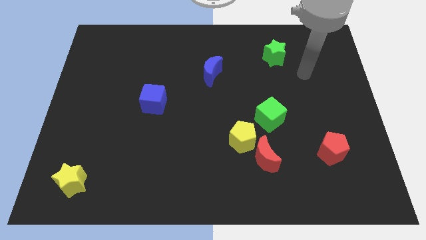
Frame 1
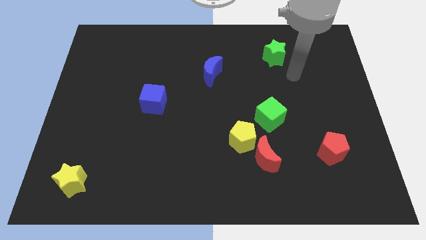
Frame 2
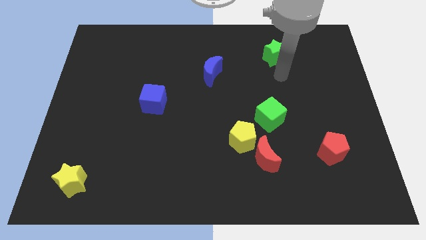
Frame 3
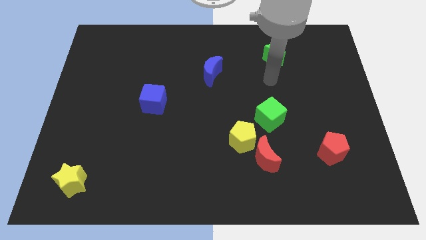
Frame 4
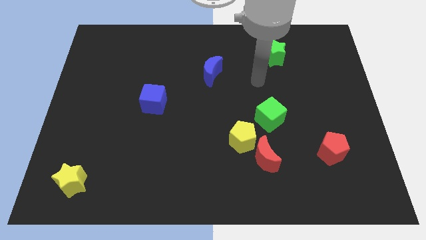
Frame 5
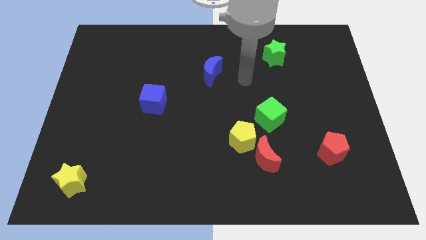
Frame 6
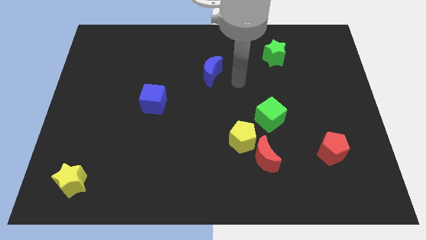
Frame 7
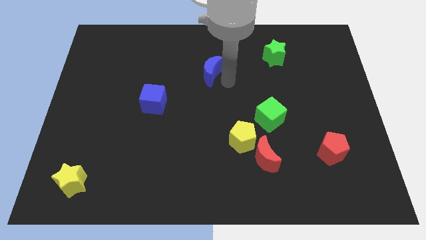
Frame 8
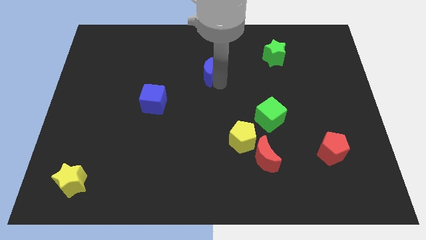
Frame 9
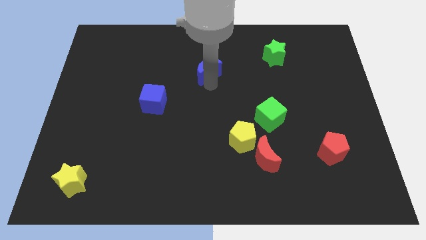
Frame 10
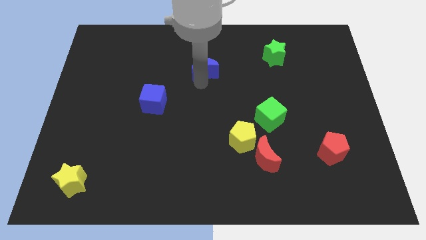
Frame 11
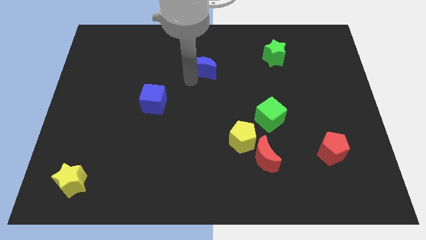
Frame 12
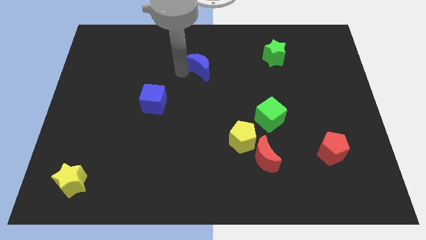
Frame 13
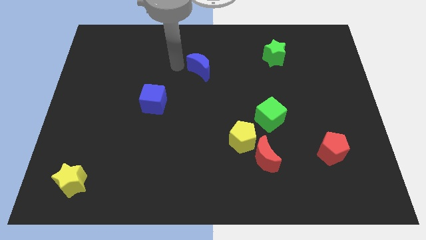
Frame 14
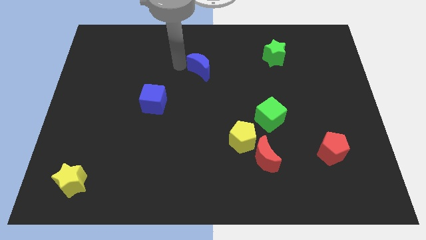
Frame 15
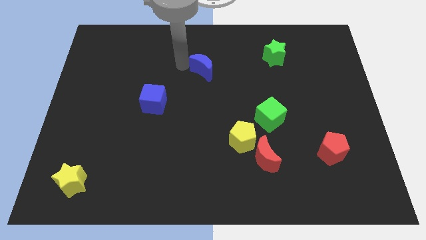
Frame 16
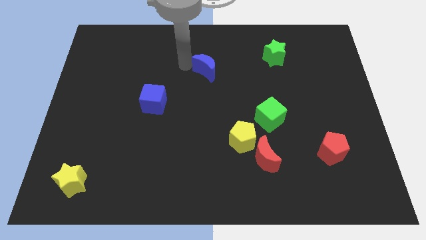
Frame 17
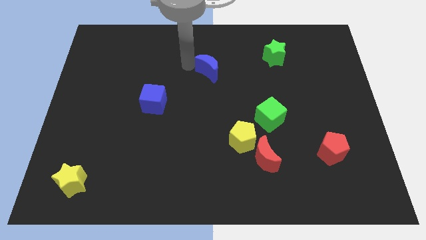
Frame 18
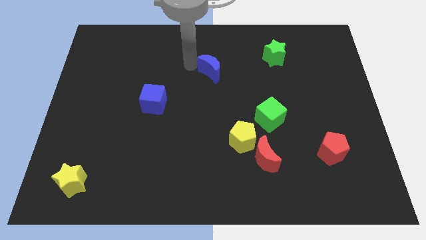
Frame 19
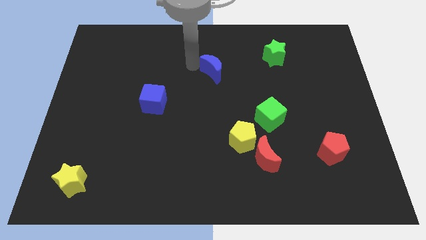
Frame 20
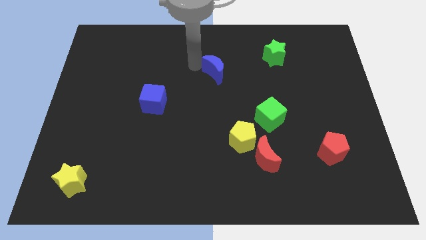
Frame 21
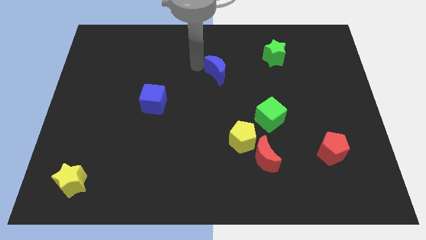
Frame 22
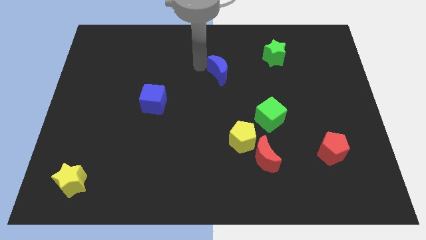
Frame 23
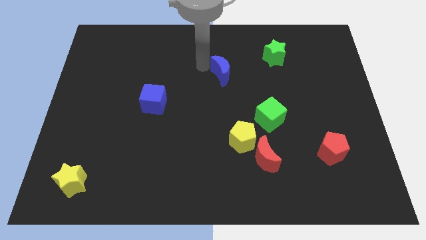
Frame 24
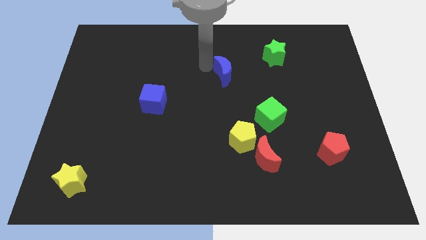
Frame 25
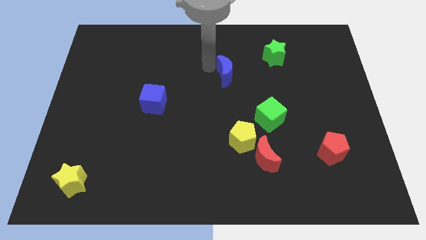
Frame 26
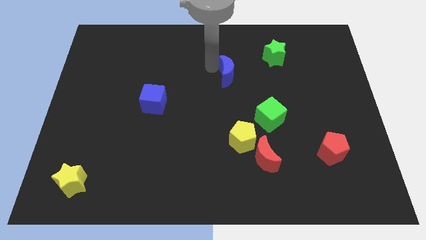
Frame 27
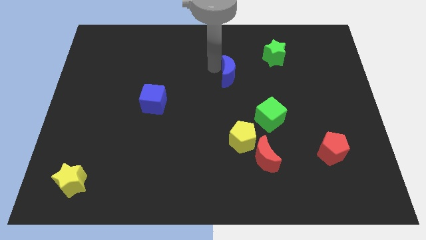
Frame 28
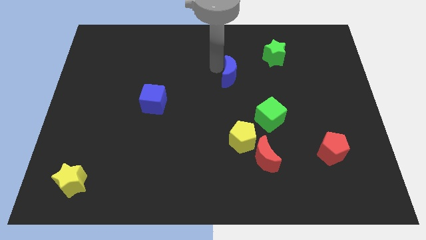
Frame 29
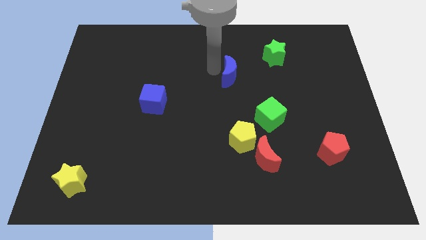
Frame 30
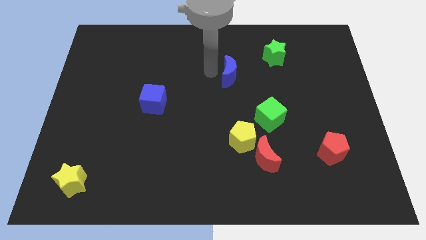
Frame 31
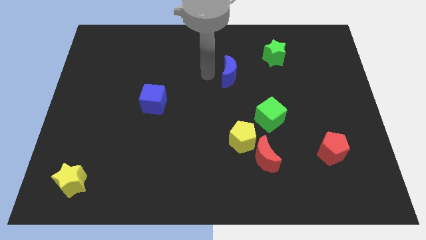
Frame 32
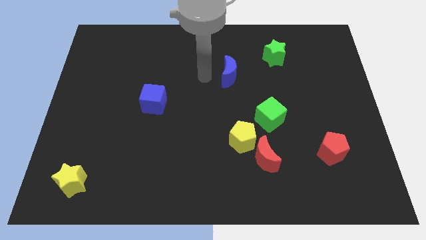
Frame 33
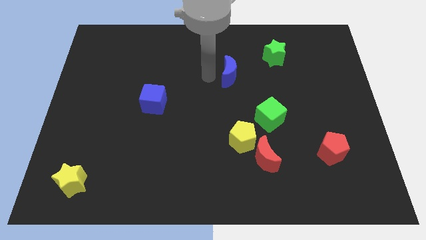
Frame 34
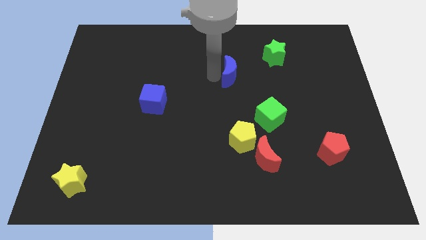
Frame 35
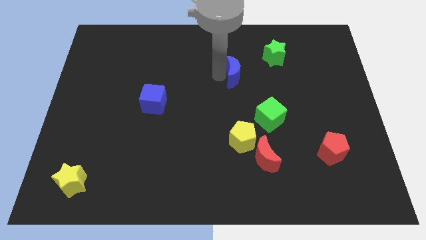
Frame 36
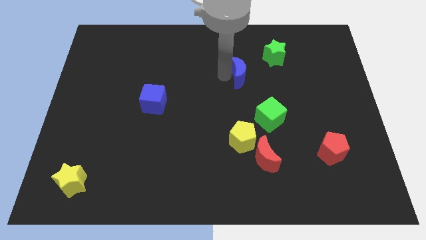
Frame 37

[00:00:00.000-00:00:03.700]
slide the blue moon somewhat to the right

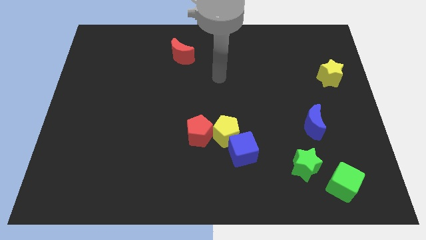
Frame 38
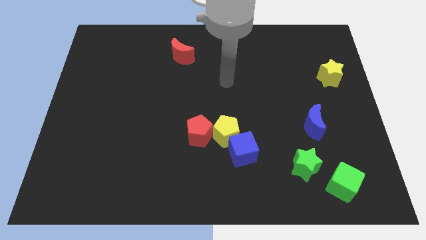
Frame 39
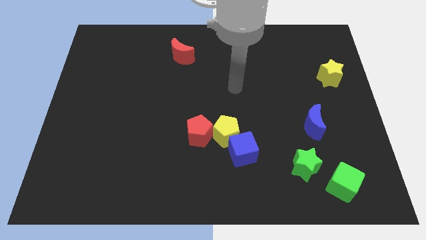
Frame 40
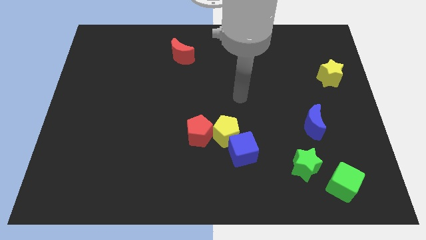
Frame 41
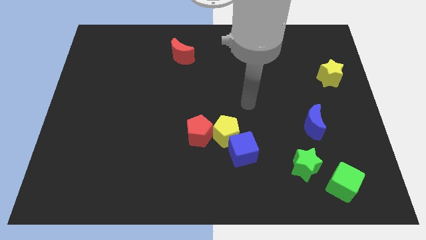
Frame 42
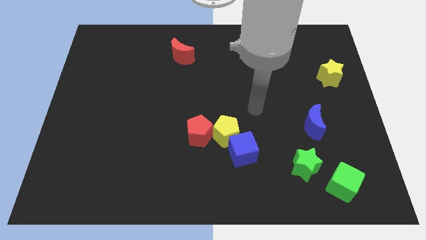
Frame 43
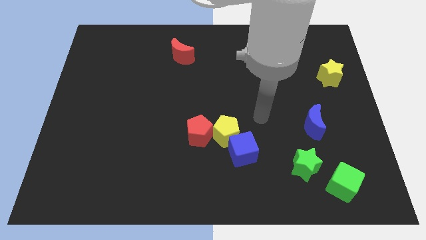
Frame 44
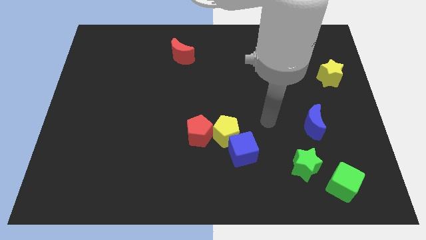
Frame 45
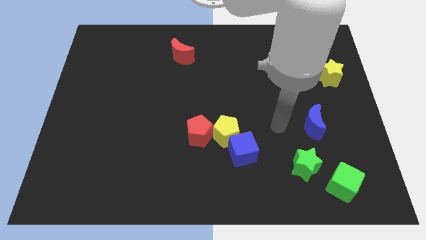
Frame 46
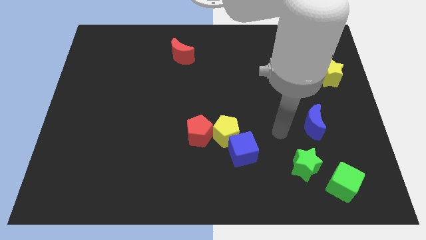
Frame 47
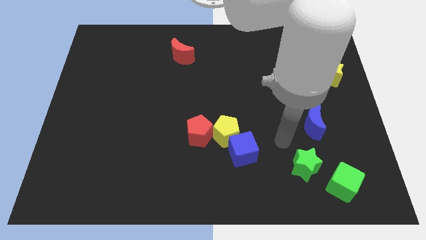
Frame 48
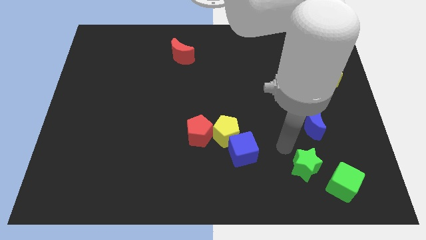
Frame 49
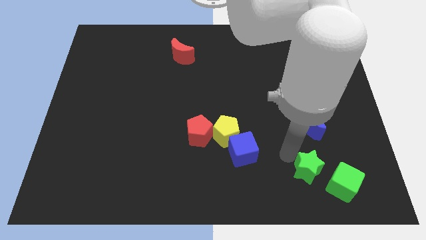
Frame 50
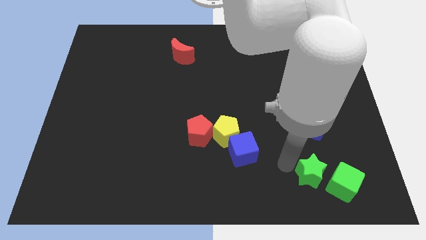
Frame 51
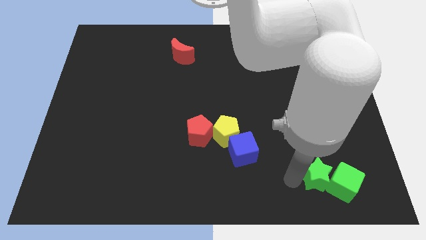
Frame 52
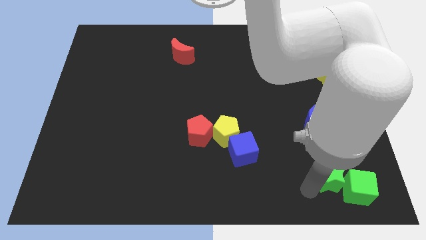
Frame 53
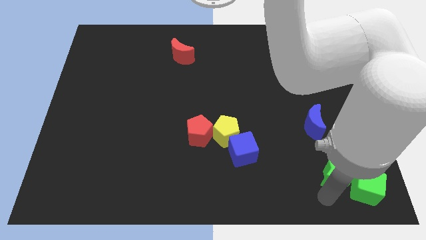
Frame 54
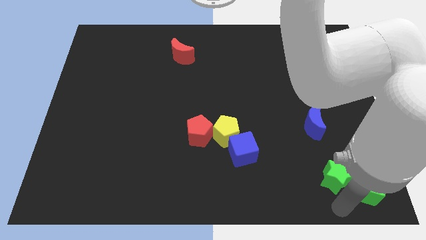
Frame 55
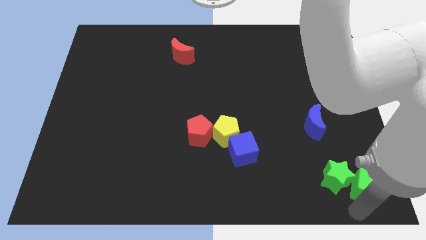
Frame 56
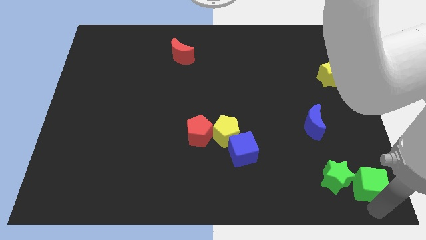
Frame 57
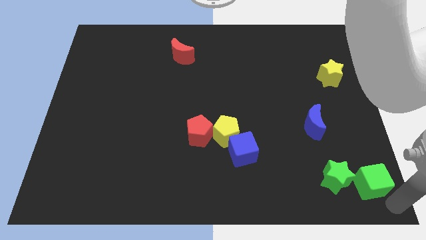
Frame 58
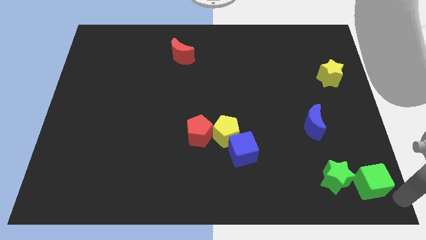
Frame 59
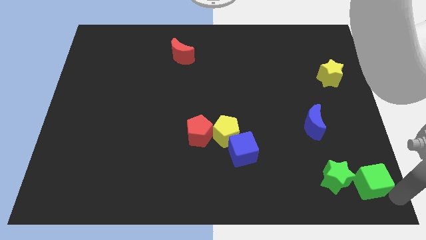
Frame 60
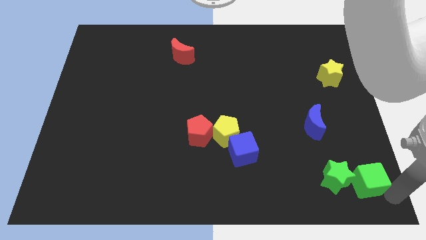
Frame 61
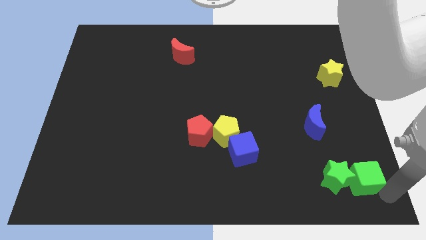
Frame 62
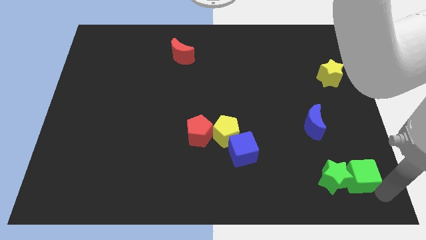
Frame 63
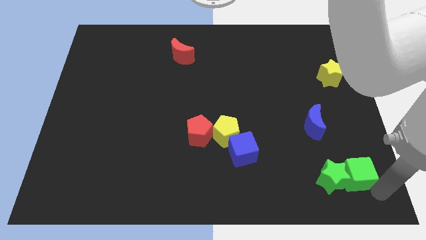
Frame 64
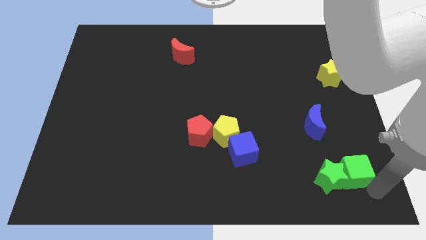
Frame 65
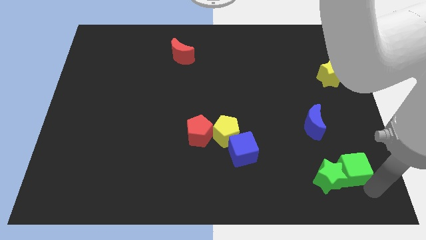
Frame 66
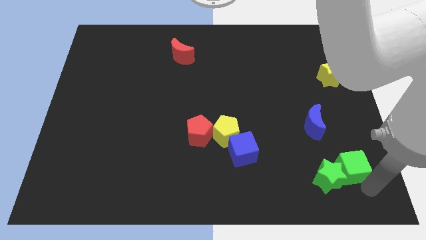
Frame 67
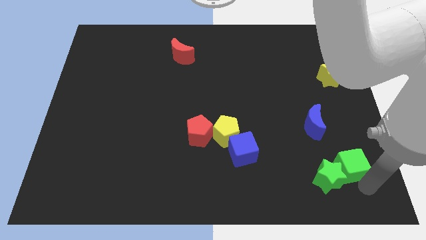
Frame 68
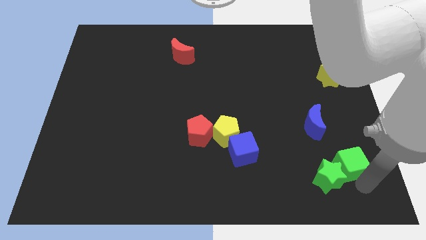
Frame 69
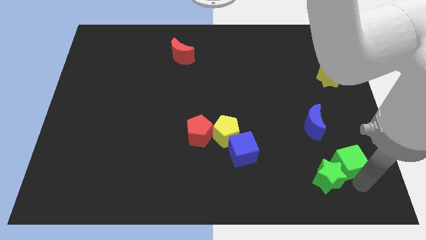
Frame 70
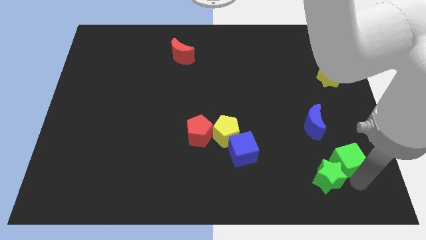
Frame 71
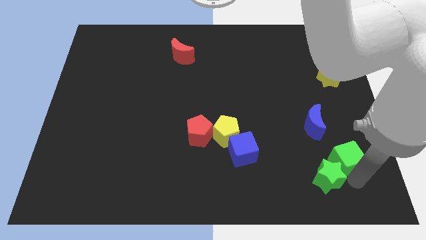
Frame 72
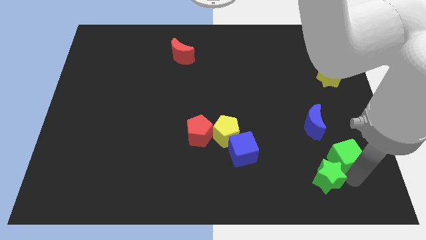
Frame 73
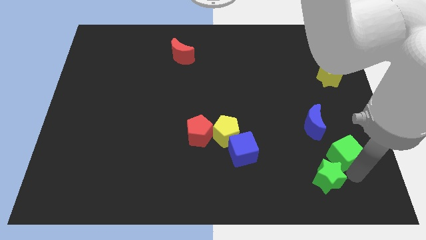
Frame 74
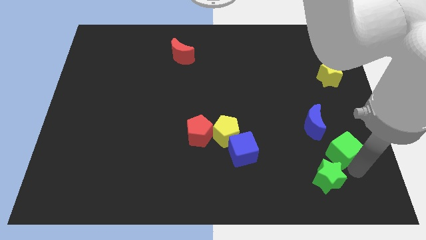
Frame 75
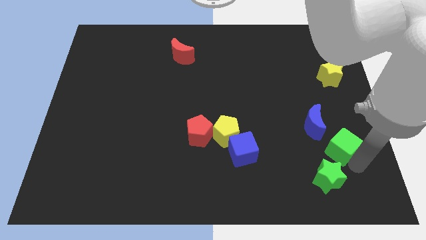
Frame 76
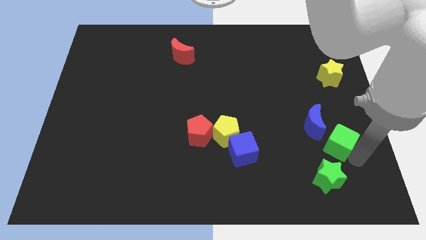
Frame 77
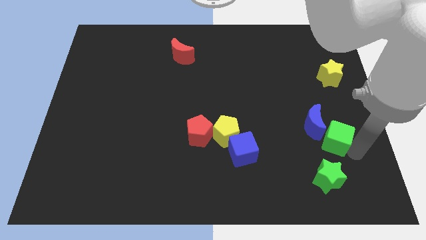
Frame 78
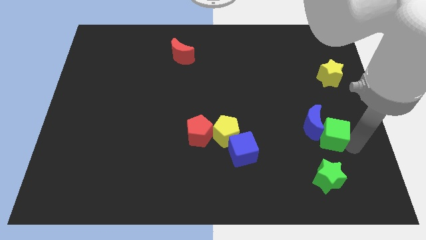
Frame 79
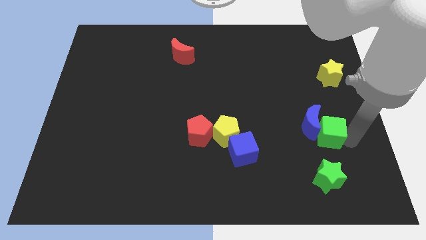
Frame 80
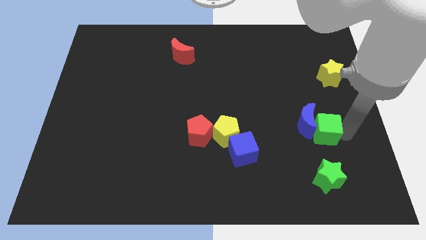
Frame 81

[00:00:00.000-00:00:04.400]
move the green cube slightly upwards and left diagonally
